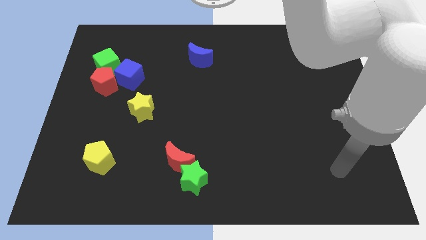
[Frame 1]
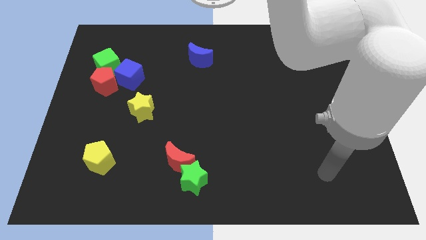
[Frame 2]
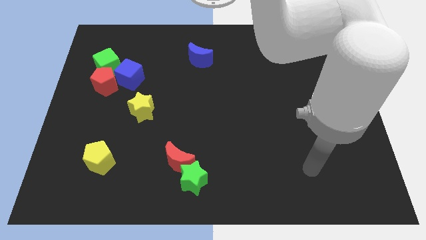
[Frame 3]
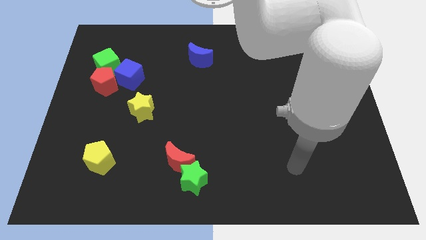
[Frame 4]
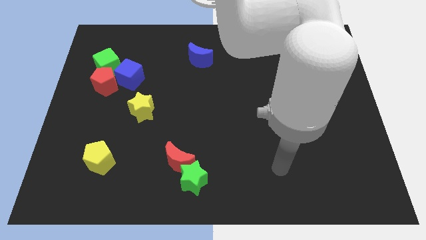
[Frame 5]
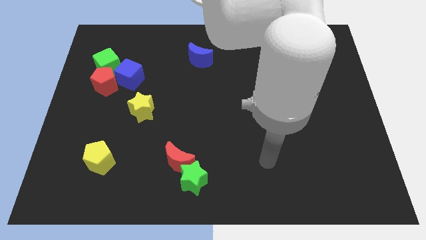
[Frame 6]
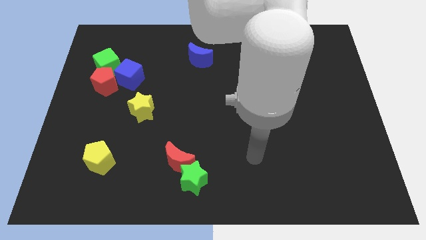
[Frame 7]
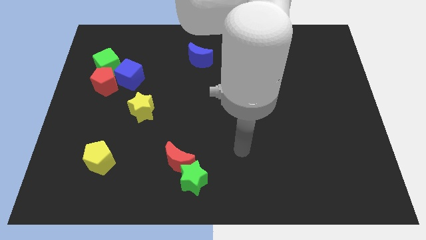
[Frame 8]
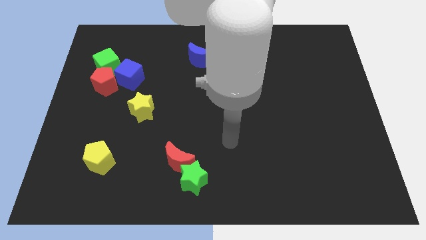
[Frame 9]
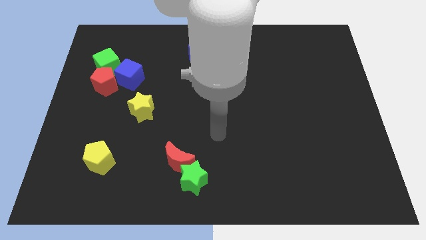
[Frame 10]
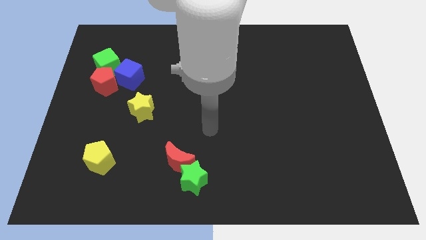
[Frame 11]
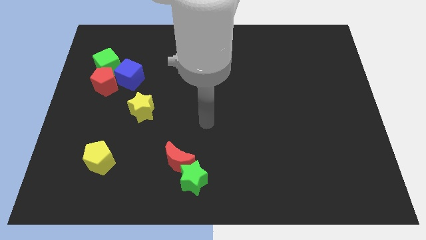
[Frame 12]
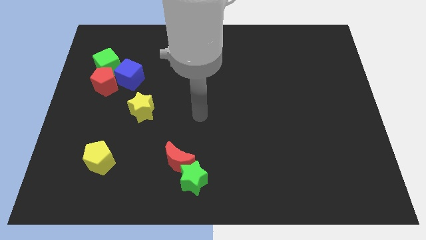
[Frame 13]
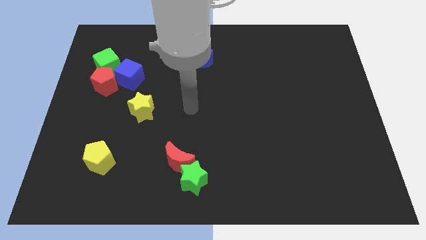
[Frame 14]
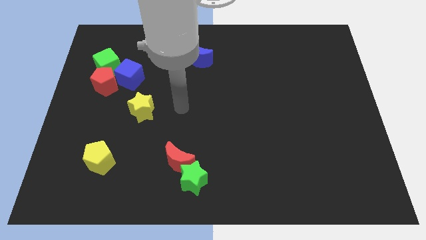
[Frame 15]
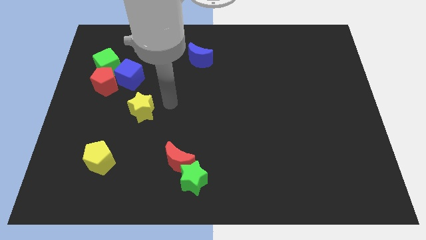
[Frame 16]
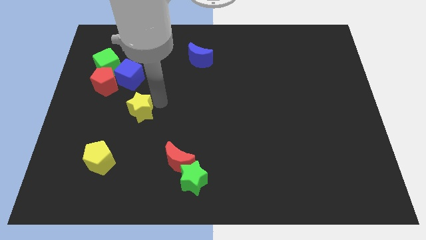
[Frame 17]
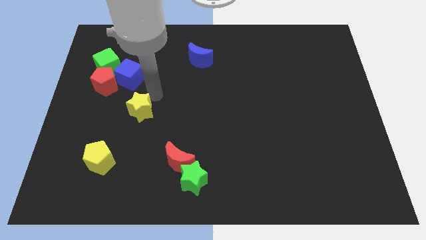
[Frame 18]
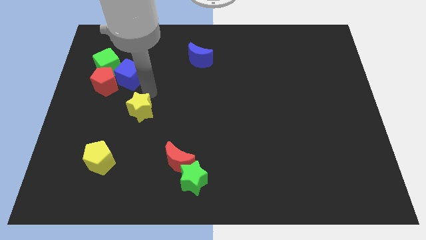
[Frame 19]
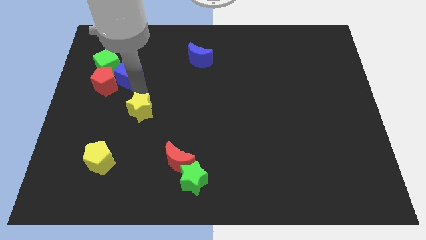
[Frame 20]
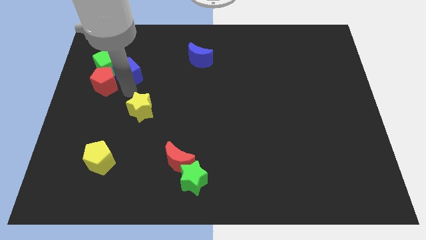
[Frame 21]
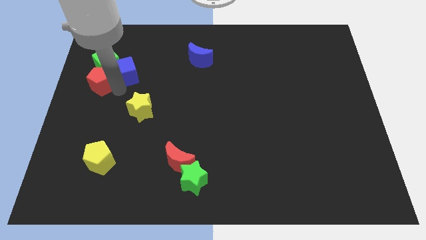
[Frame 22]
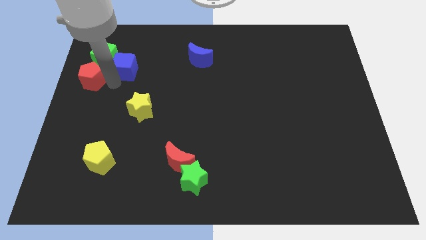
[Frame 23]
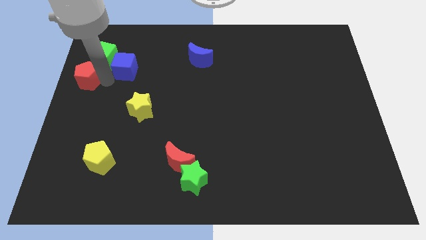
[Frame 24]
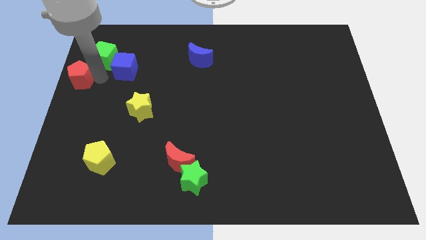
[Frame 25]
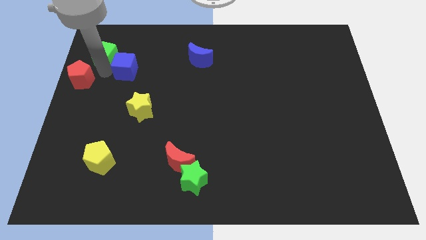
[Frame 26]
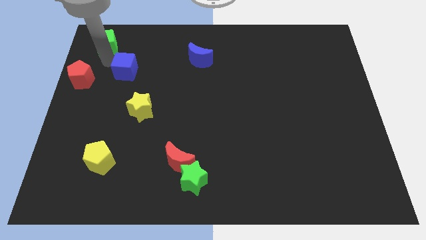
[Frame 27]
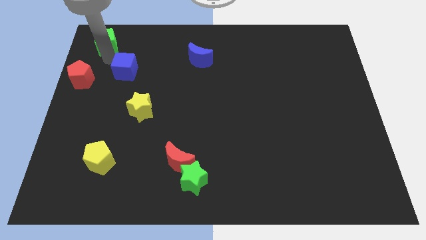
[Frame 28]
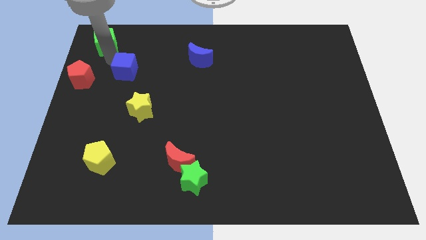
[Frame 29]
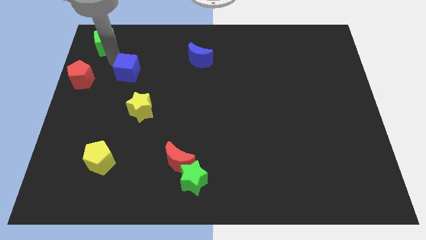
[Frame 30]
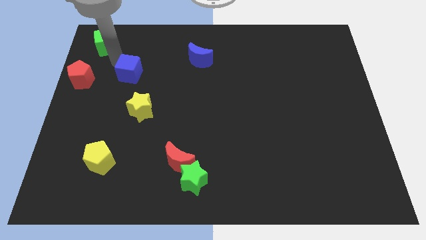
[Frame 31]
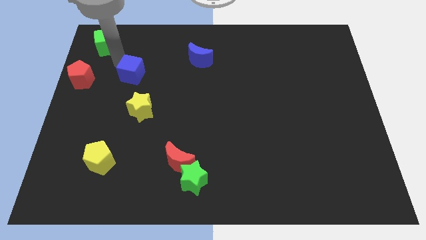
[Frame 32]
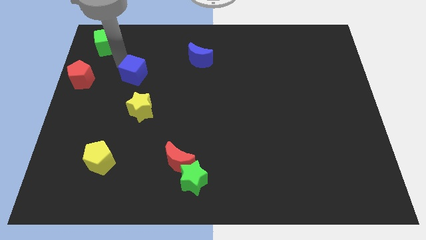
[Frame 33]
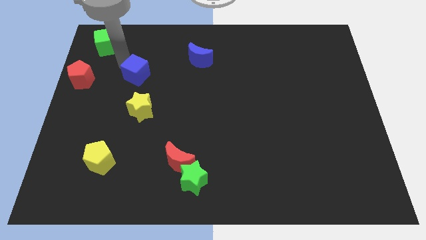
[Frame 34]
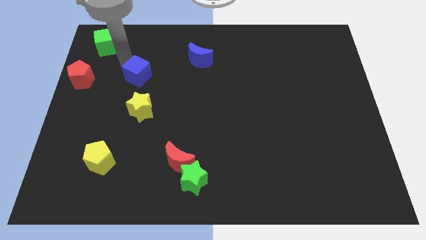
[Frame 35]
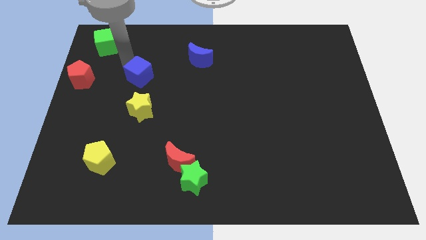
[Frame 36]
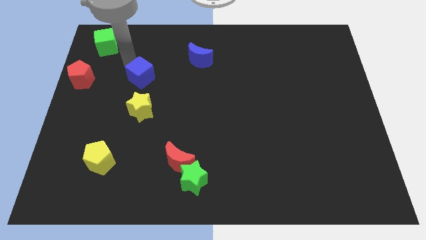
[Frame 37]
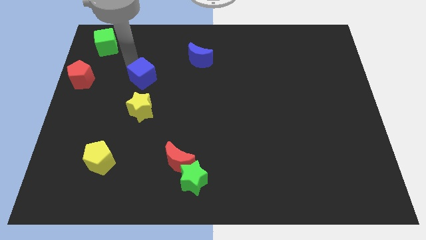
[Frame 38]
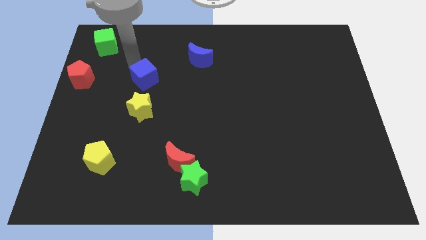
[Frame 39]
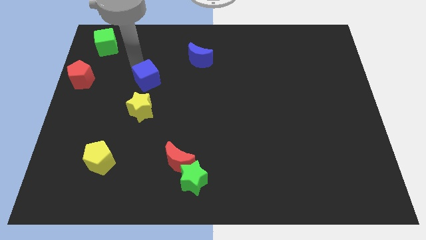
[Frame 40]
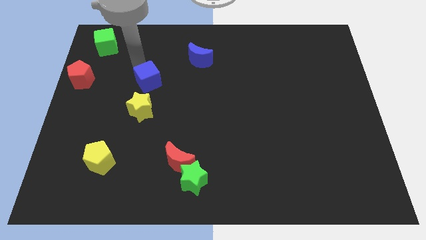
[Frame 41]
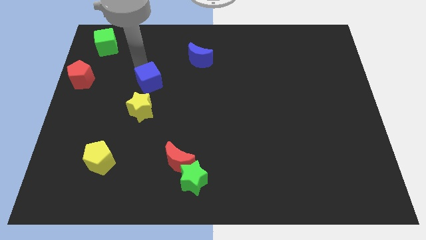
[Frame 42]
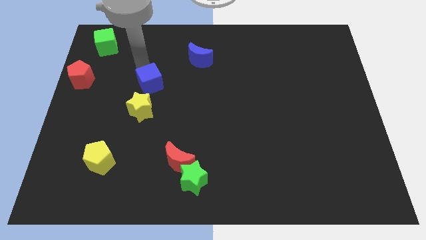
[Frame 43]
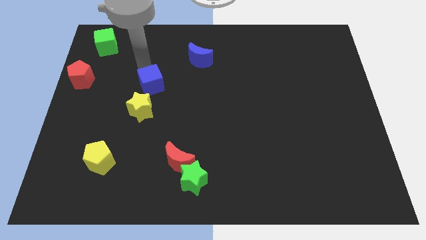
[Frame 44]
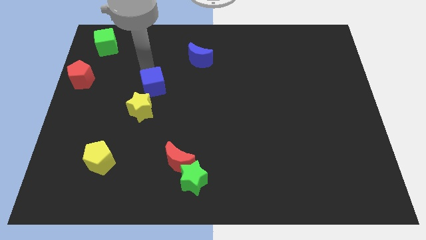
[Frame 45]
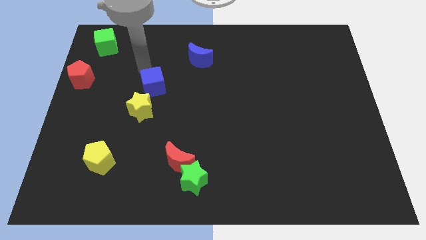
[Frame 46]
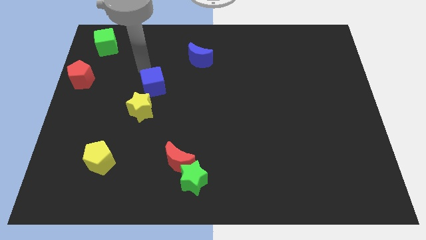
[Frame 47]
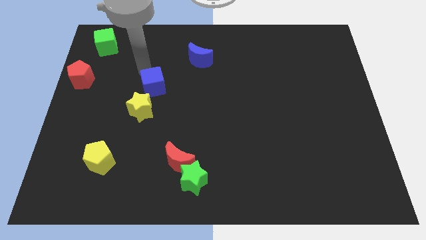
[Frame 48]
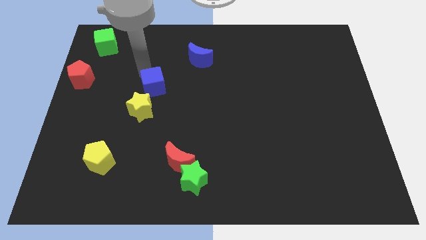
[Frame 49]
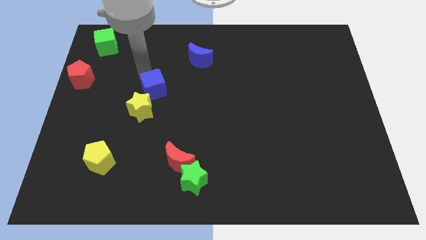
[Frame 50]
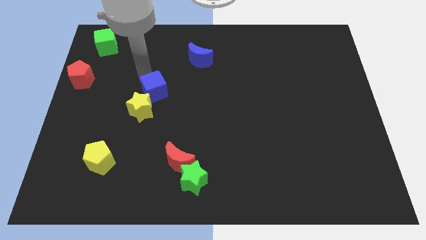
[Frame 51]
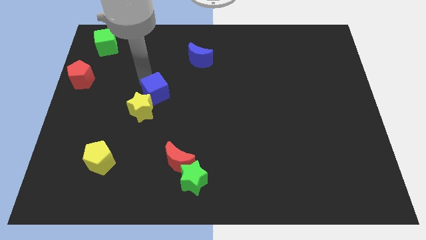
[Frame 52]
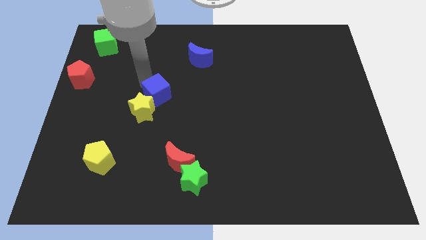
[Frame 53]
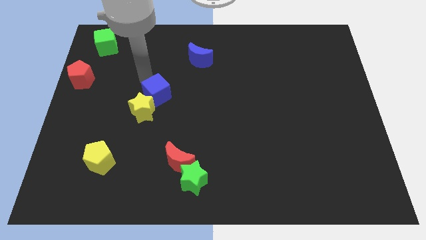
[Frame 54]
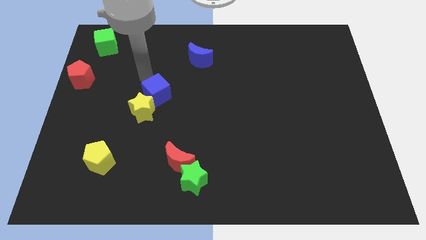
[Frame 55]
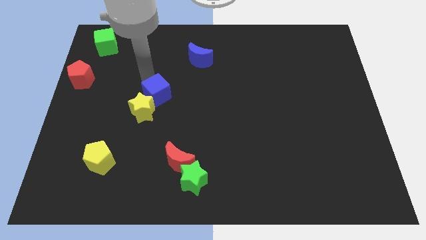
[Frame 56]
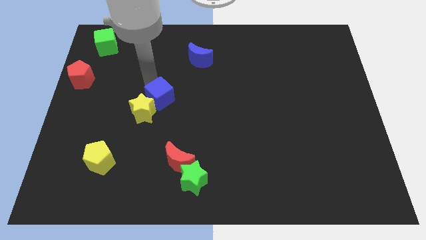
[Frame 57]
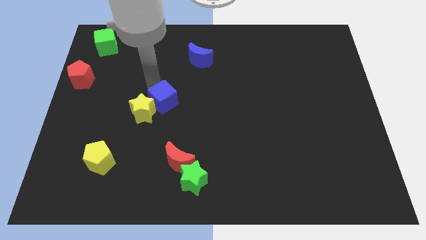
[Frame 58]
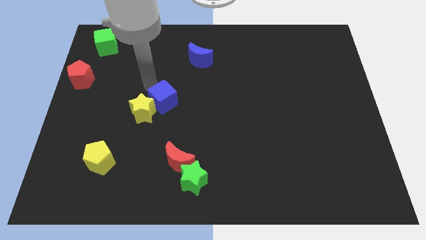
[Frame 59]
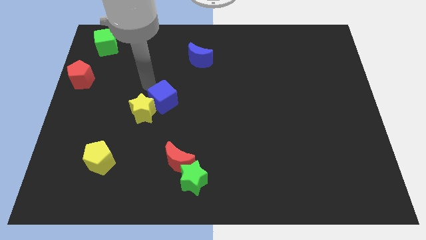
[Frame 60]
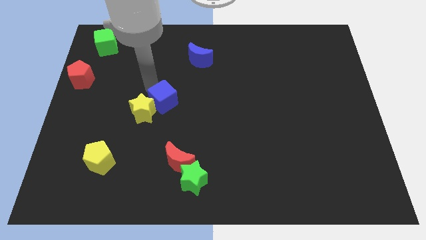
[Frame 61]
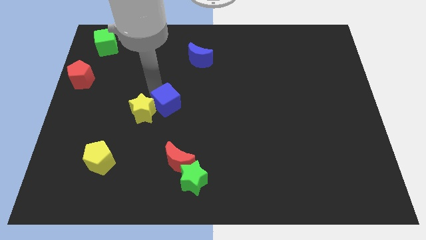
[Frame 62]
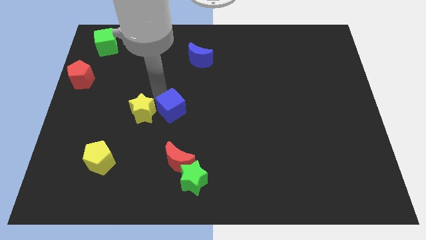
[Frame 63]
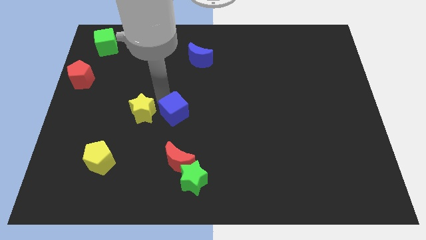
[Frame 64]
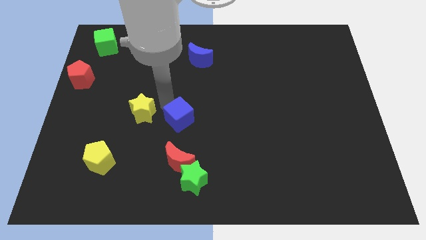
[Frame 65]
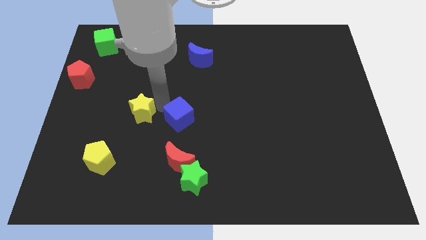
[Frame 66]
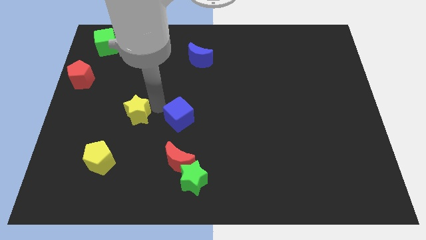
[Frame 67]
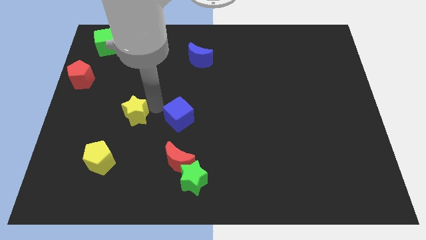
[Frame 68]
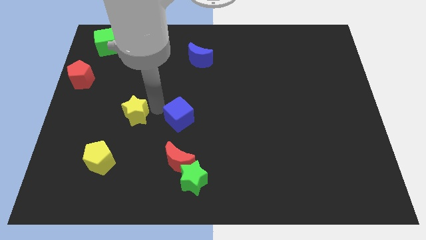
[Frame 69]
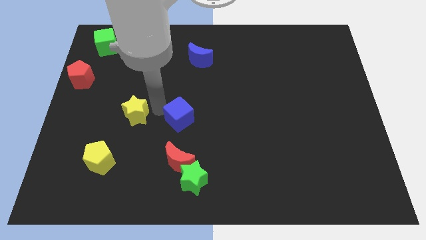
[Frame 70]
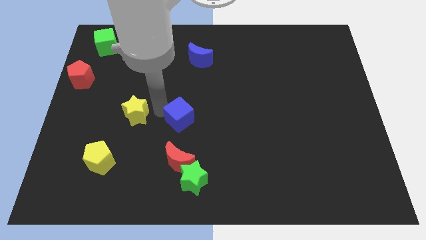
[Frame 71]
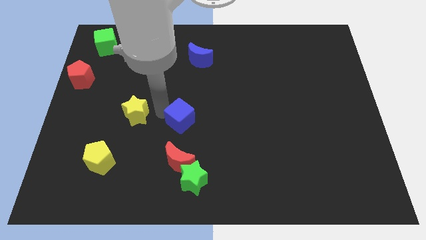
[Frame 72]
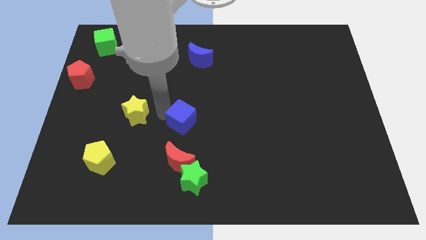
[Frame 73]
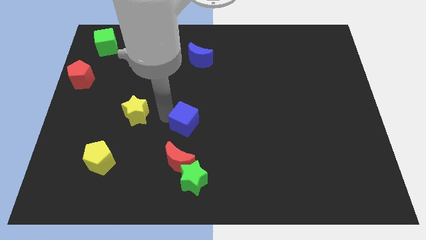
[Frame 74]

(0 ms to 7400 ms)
move the blue cube diagonally down and to the right

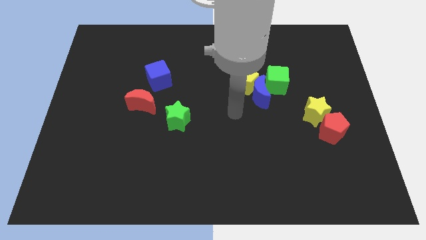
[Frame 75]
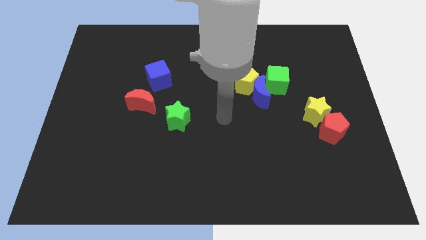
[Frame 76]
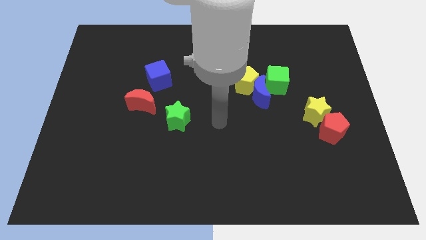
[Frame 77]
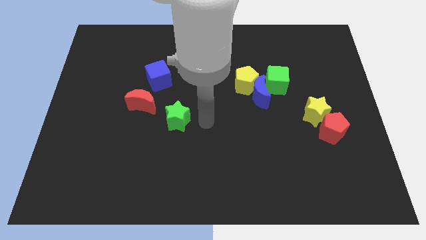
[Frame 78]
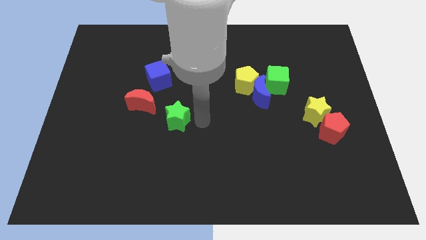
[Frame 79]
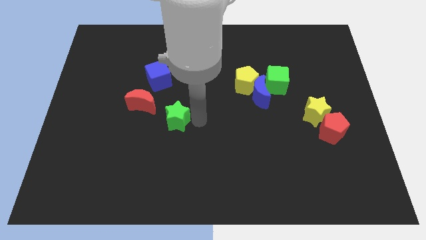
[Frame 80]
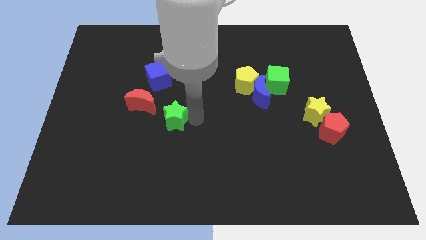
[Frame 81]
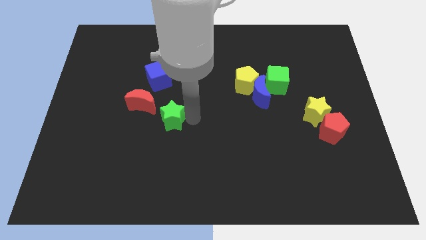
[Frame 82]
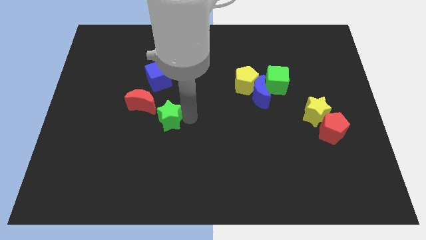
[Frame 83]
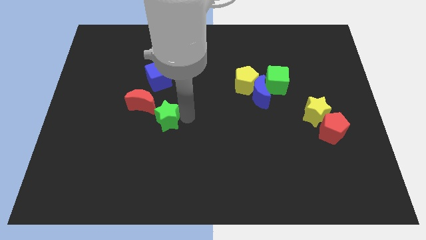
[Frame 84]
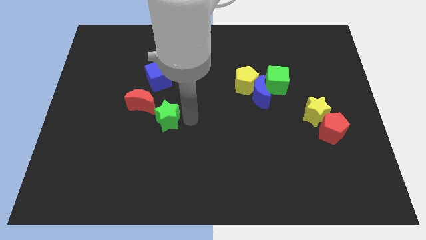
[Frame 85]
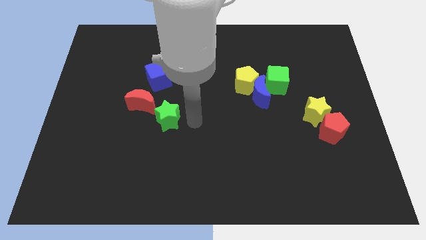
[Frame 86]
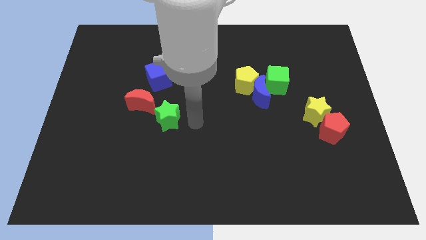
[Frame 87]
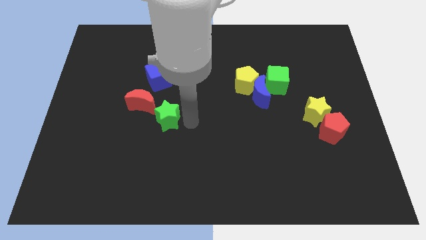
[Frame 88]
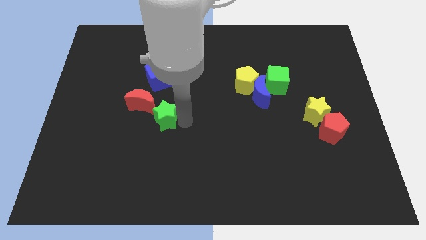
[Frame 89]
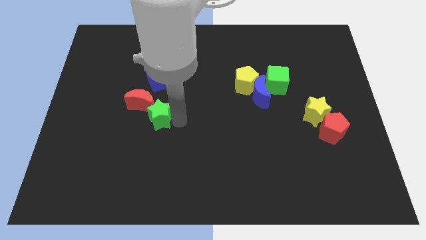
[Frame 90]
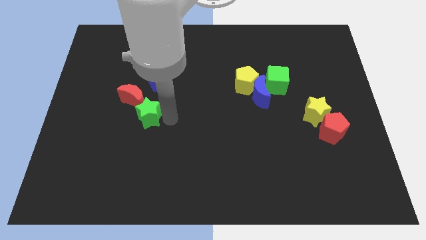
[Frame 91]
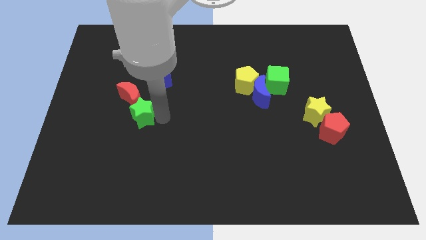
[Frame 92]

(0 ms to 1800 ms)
push the green star somewhat to the left
